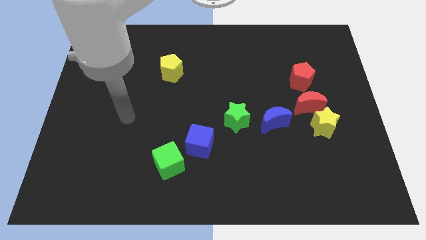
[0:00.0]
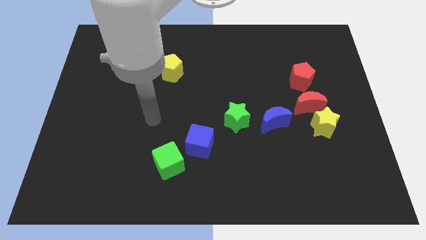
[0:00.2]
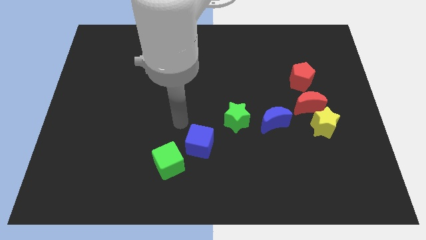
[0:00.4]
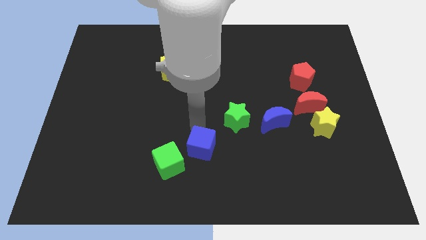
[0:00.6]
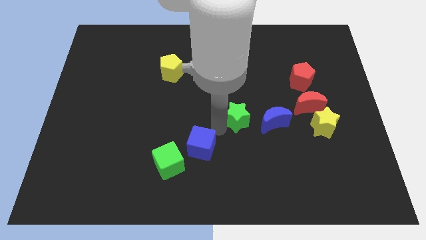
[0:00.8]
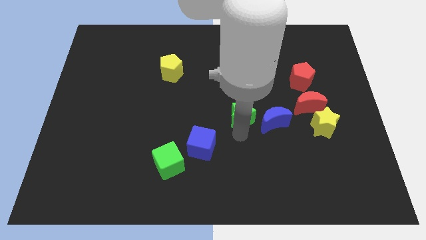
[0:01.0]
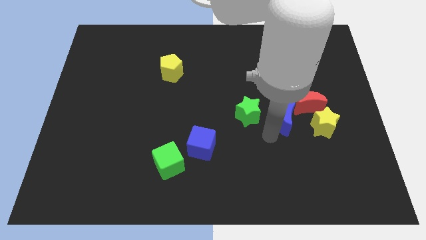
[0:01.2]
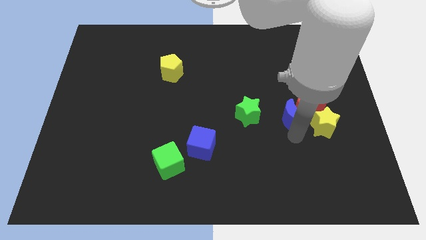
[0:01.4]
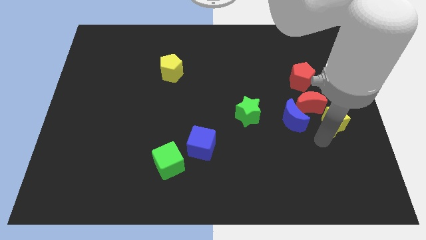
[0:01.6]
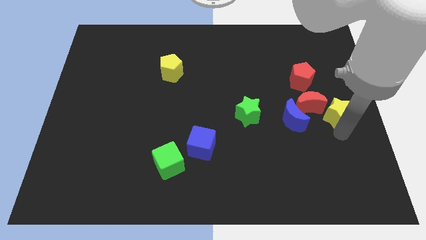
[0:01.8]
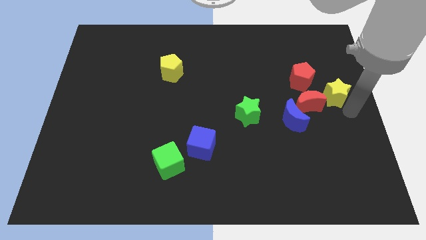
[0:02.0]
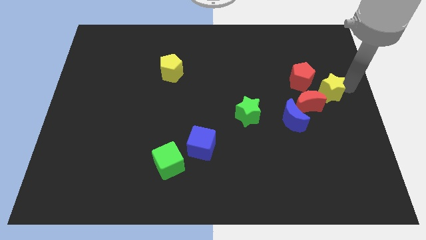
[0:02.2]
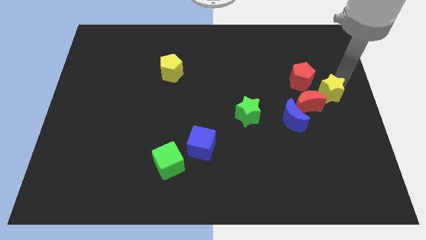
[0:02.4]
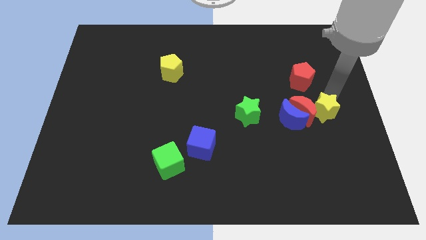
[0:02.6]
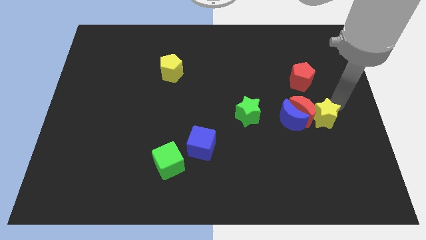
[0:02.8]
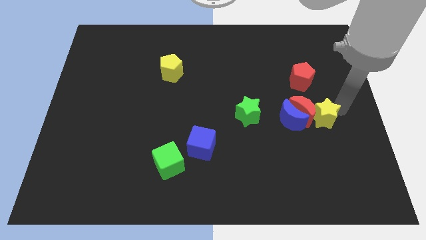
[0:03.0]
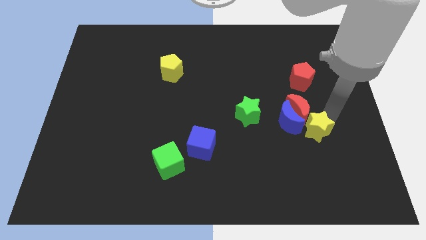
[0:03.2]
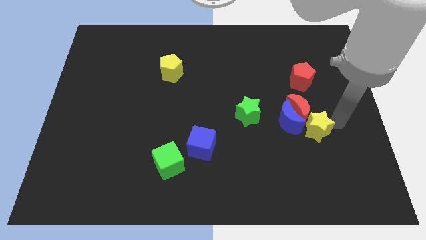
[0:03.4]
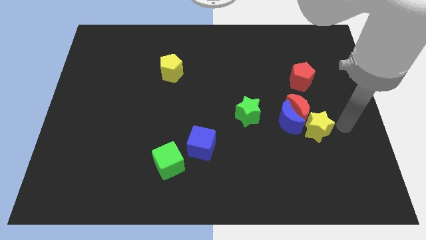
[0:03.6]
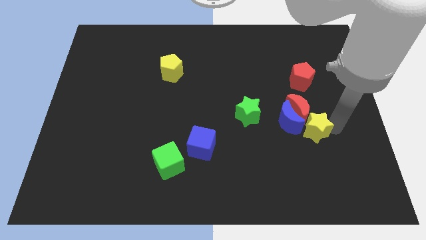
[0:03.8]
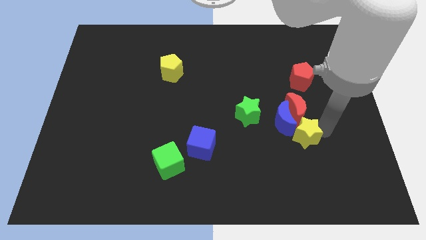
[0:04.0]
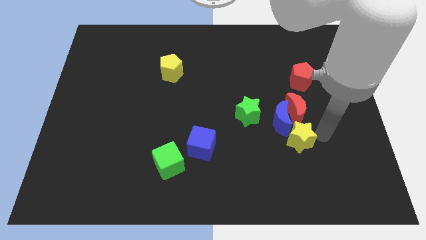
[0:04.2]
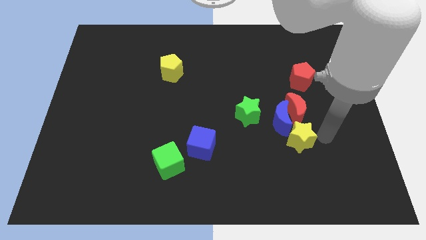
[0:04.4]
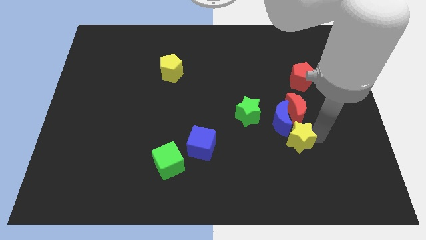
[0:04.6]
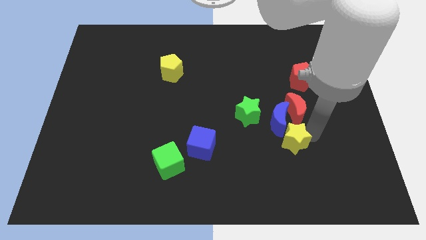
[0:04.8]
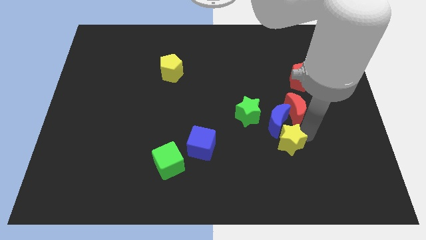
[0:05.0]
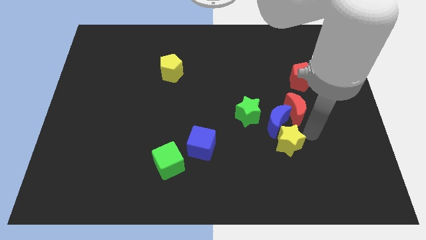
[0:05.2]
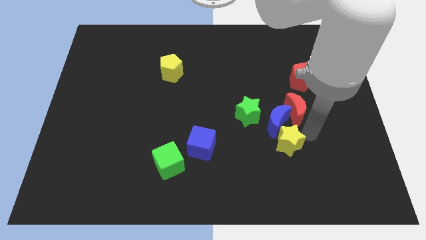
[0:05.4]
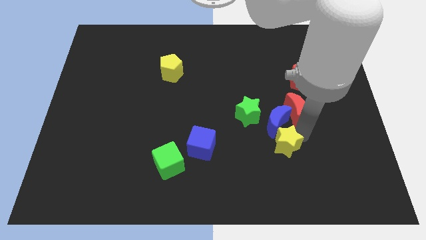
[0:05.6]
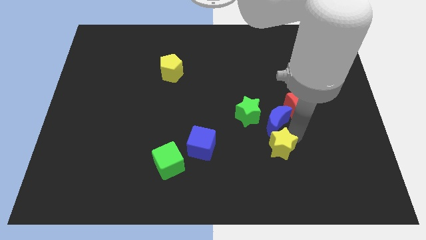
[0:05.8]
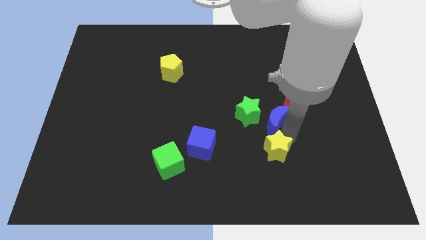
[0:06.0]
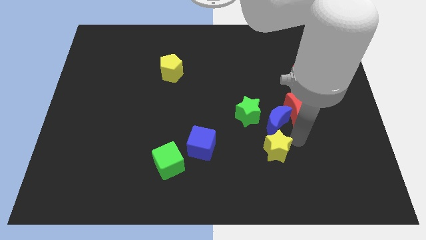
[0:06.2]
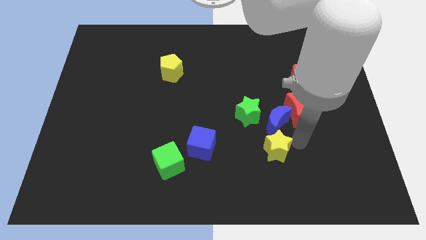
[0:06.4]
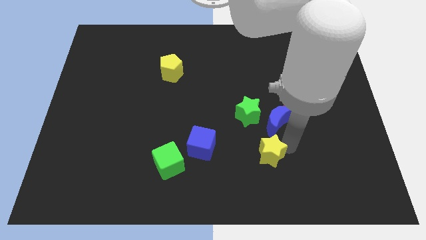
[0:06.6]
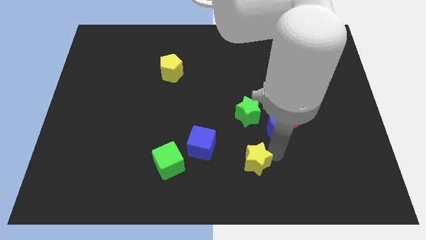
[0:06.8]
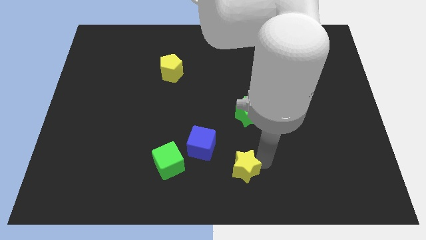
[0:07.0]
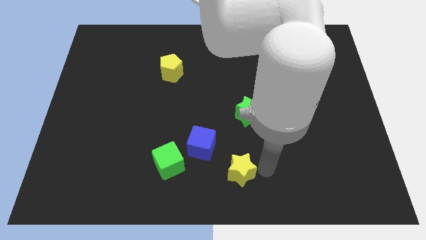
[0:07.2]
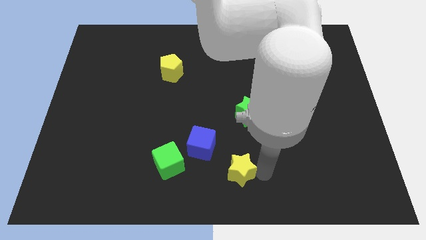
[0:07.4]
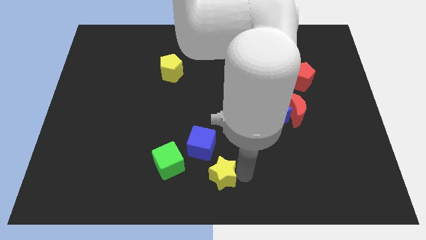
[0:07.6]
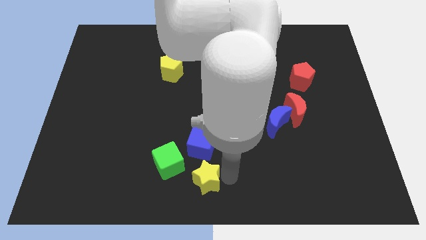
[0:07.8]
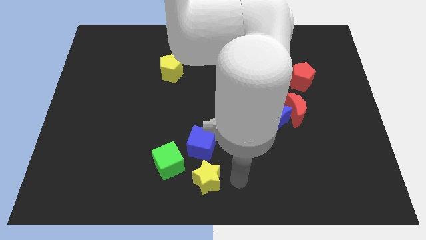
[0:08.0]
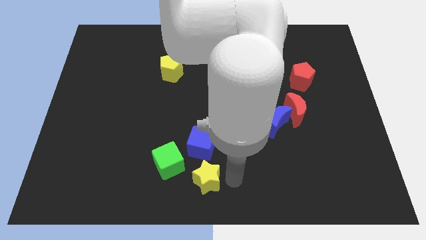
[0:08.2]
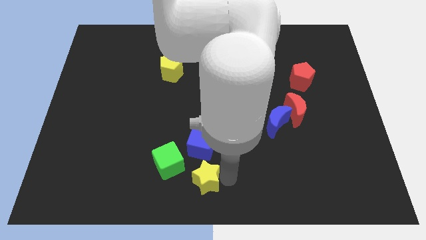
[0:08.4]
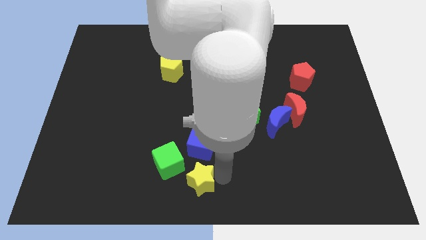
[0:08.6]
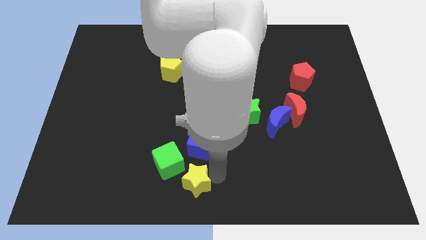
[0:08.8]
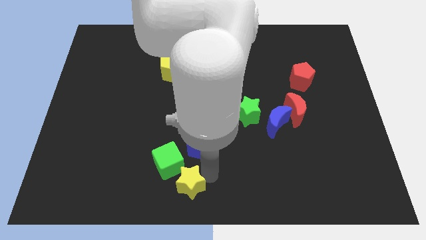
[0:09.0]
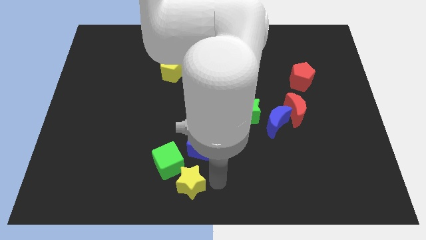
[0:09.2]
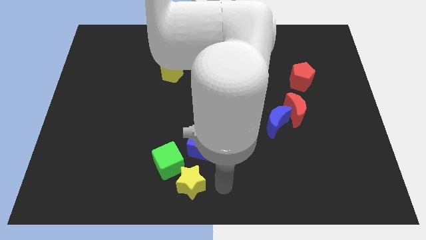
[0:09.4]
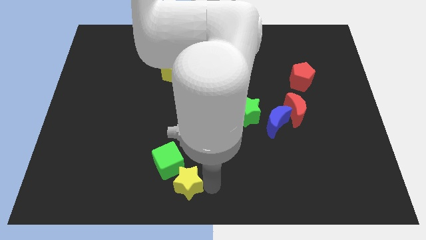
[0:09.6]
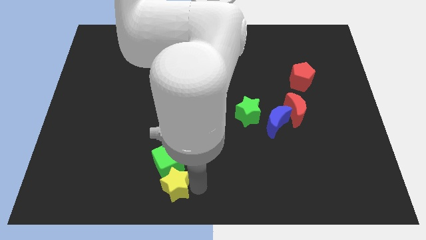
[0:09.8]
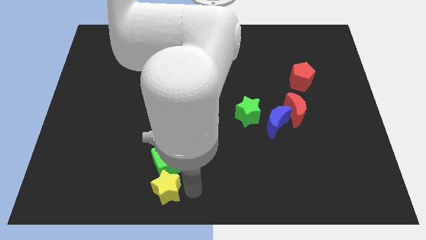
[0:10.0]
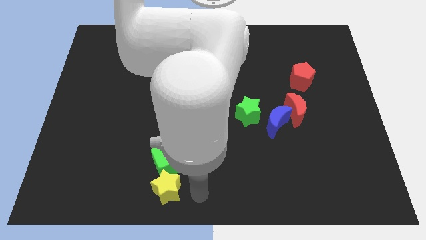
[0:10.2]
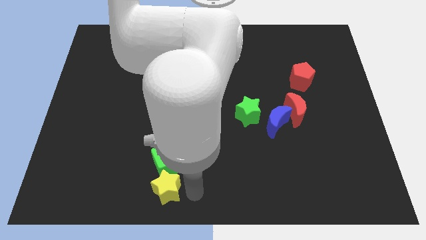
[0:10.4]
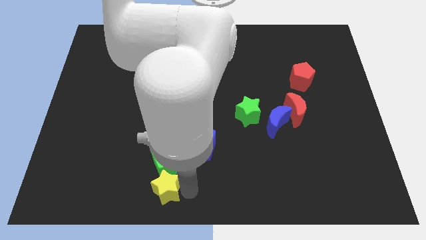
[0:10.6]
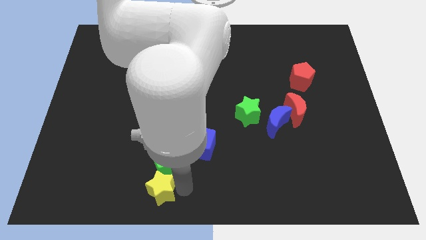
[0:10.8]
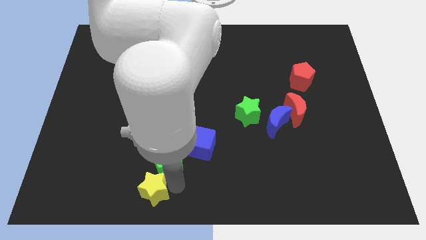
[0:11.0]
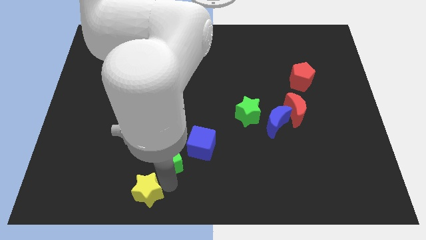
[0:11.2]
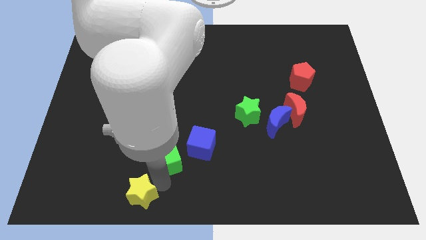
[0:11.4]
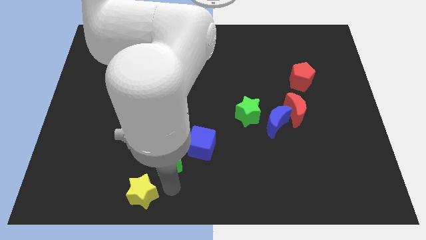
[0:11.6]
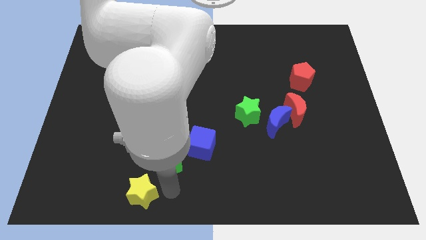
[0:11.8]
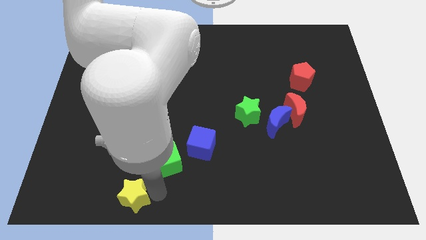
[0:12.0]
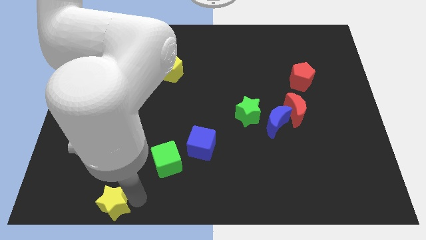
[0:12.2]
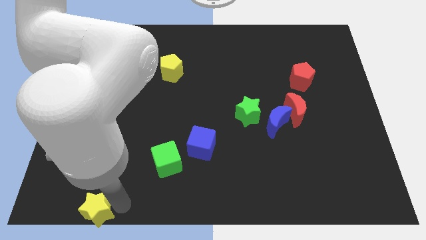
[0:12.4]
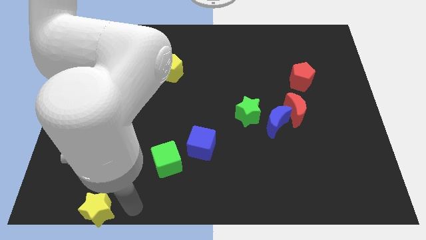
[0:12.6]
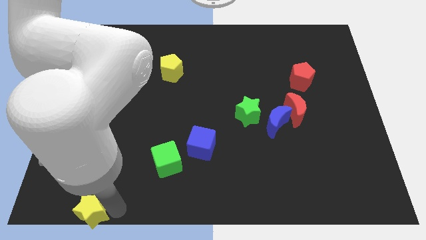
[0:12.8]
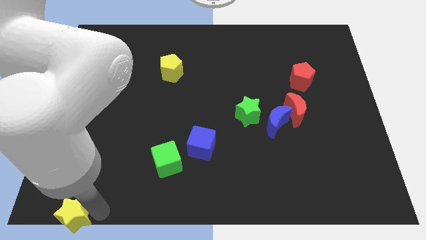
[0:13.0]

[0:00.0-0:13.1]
slide the yellow star to the bottom left corner
